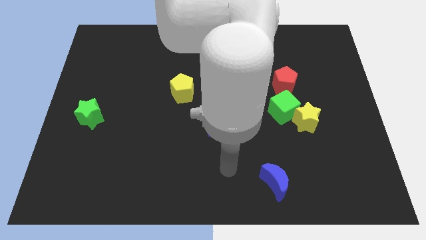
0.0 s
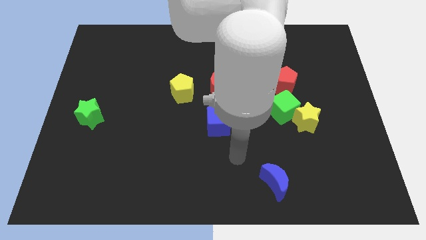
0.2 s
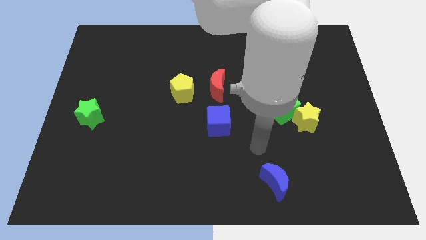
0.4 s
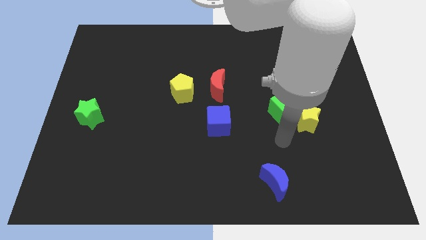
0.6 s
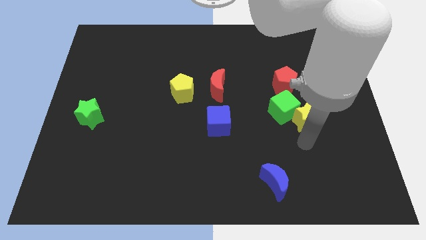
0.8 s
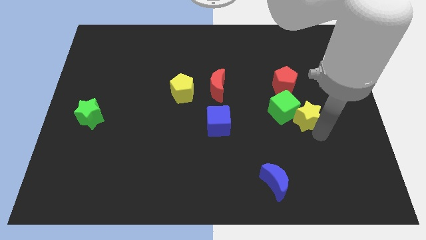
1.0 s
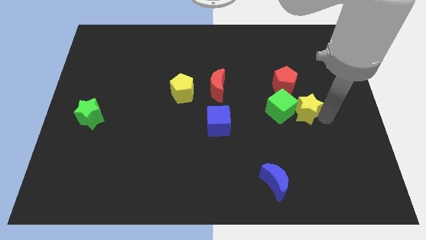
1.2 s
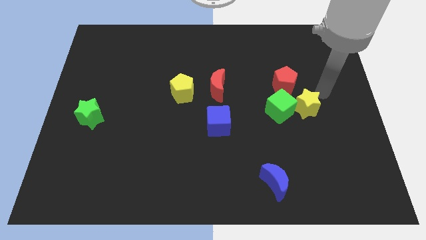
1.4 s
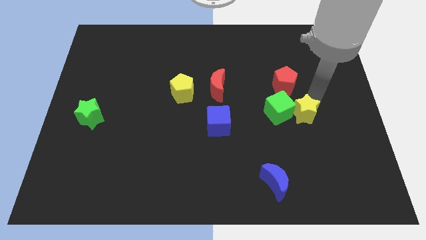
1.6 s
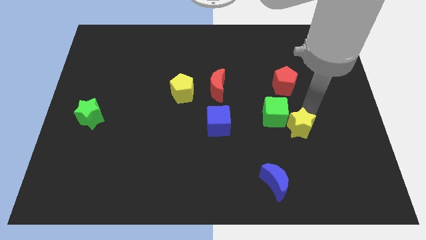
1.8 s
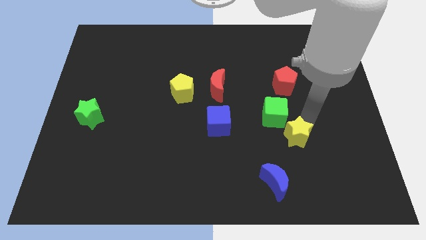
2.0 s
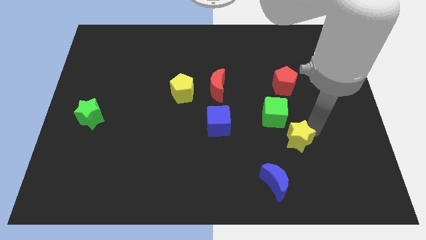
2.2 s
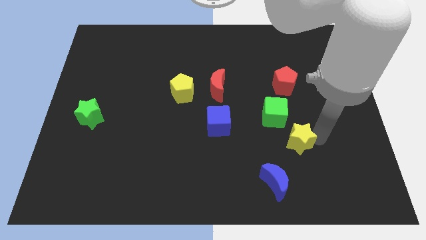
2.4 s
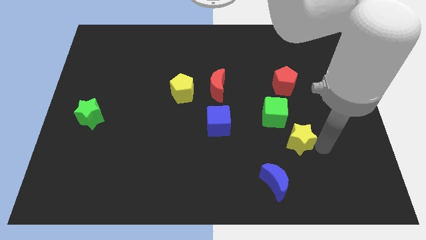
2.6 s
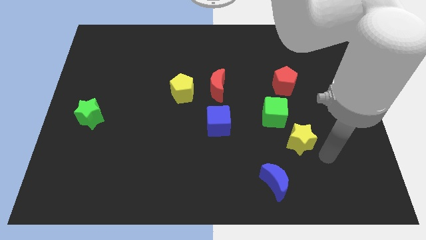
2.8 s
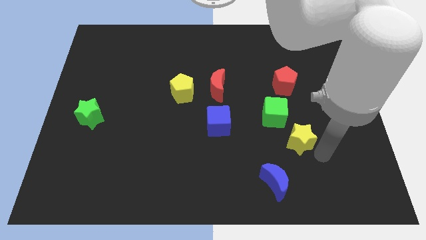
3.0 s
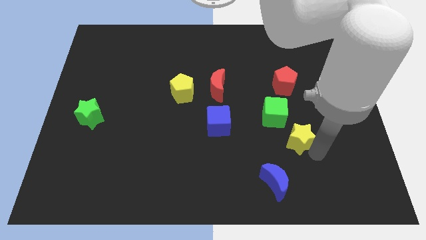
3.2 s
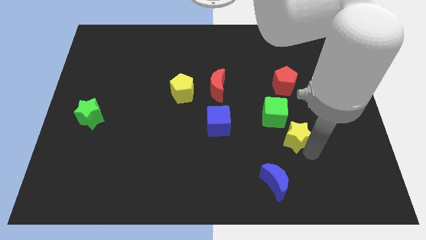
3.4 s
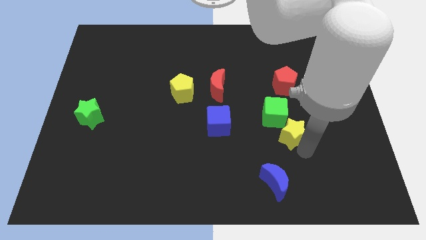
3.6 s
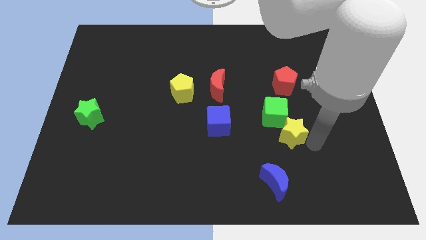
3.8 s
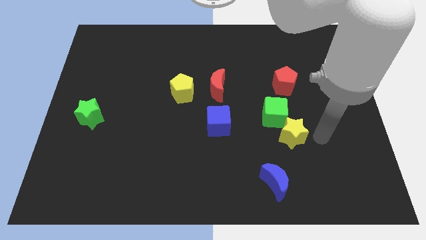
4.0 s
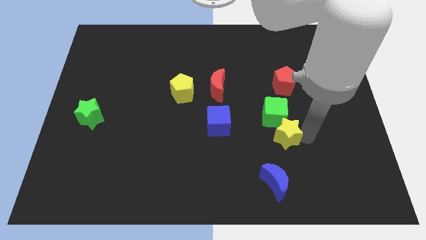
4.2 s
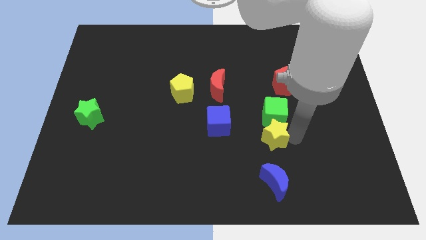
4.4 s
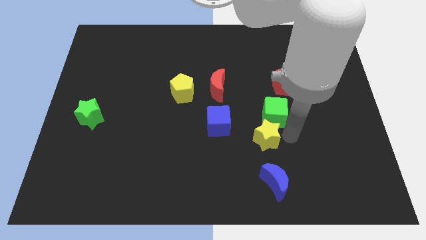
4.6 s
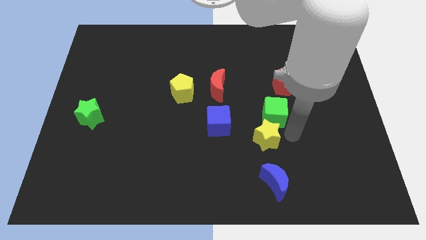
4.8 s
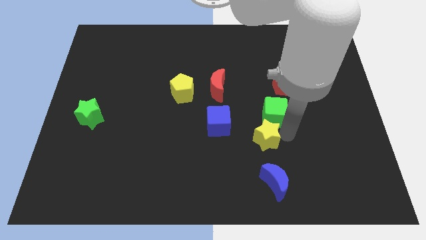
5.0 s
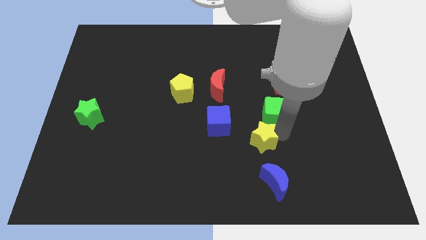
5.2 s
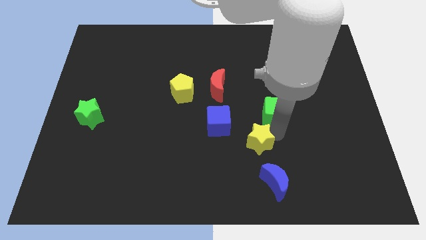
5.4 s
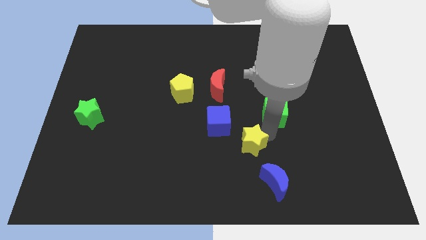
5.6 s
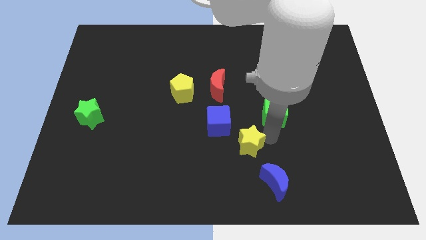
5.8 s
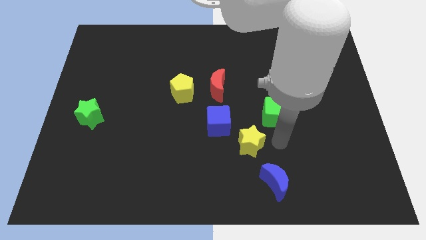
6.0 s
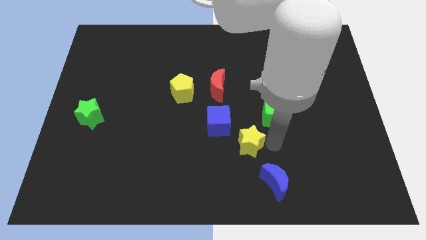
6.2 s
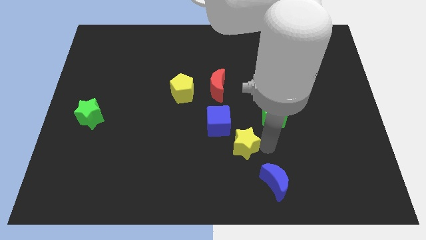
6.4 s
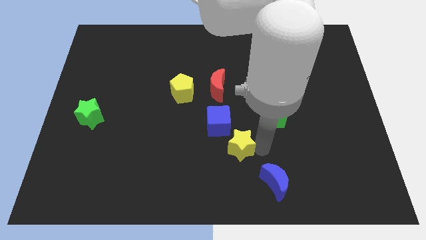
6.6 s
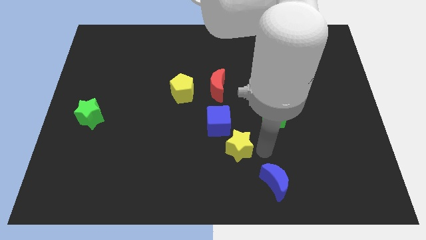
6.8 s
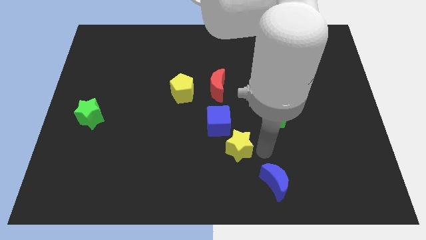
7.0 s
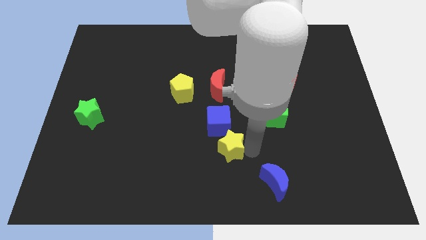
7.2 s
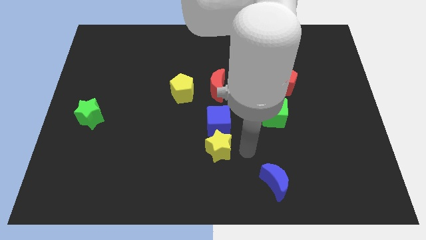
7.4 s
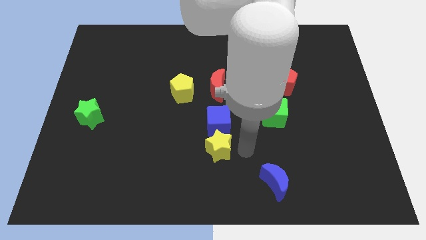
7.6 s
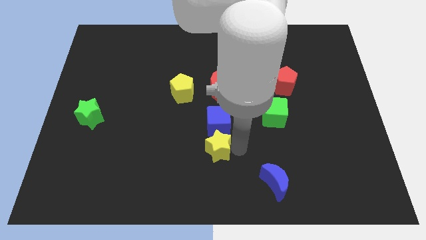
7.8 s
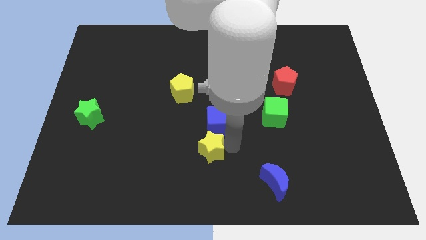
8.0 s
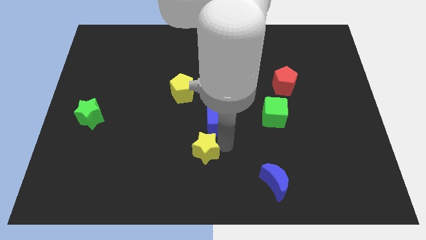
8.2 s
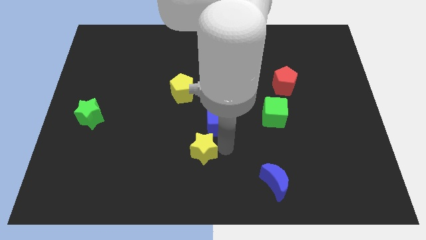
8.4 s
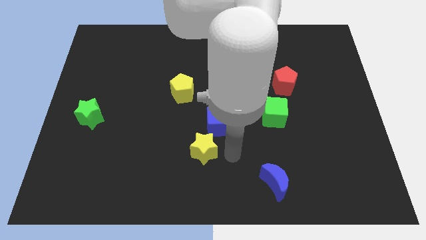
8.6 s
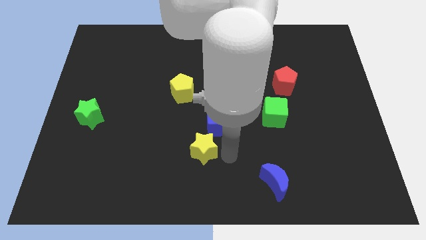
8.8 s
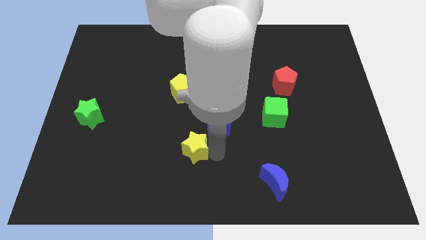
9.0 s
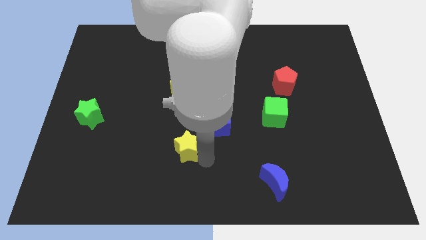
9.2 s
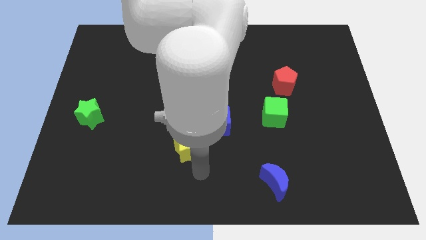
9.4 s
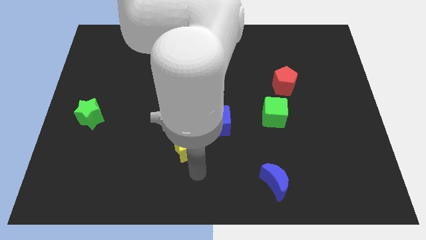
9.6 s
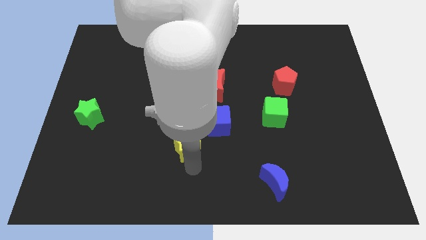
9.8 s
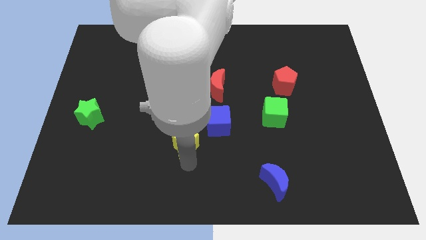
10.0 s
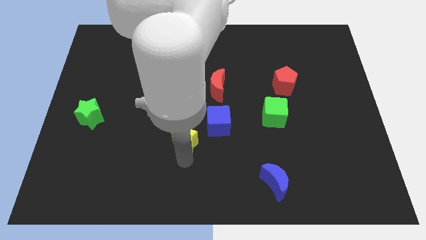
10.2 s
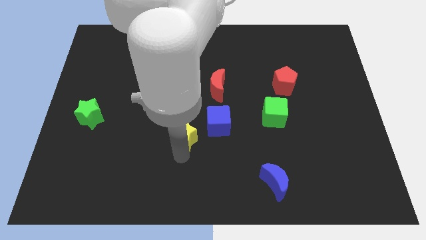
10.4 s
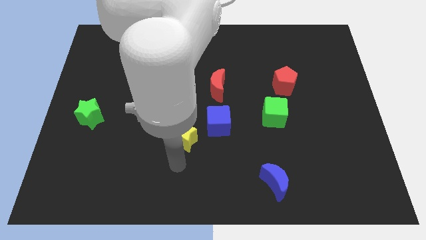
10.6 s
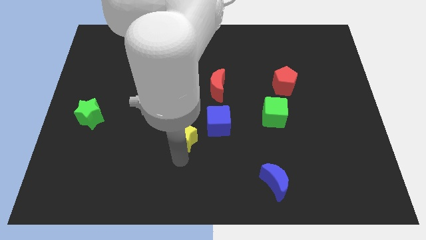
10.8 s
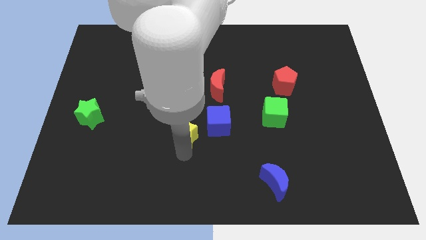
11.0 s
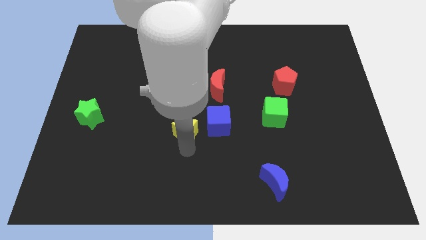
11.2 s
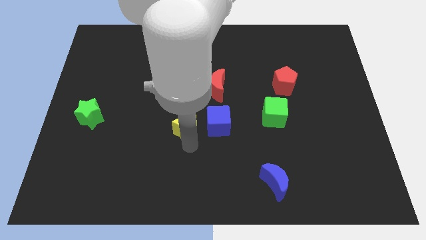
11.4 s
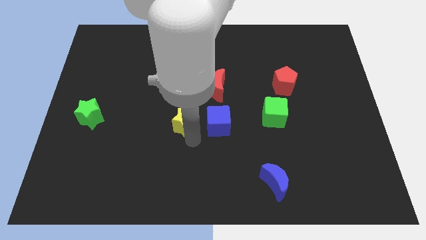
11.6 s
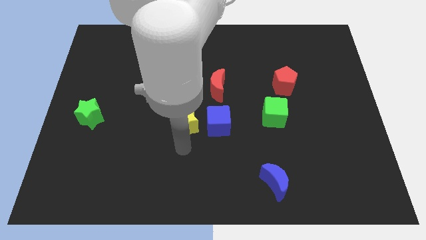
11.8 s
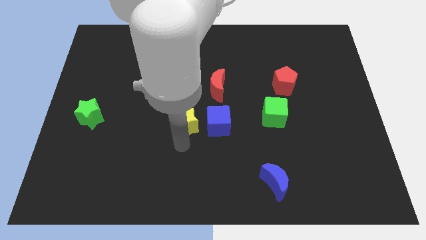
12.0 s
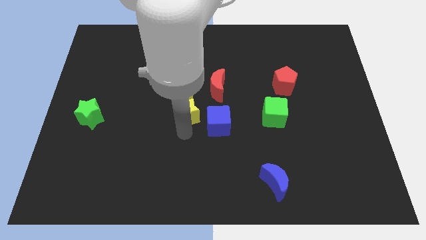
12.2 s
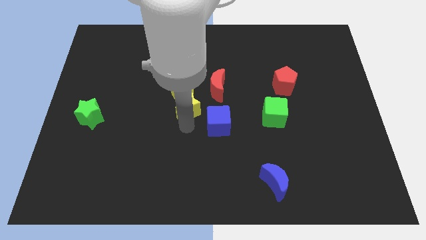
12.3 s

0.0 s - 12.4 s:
move the yellow star to the yellow pentagon

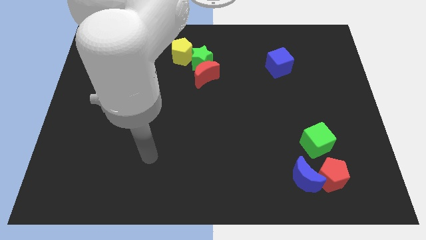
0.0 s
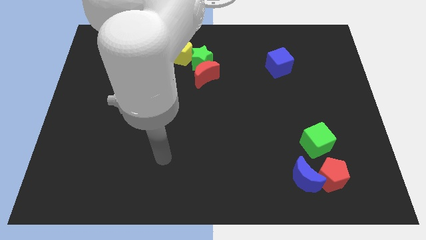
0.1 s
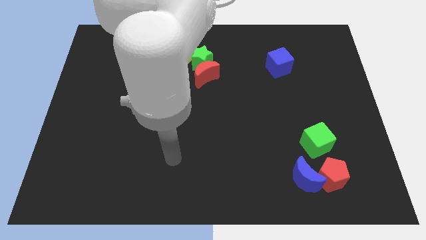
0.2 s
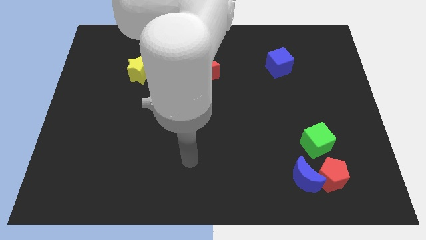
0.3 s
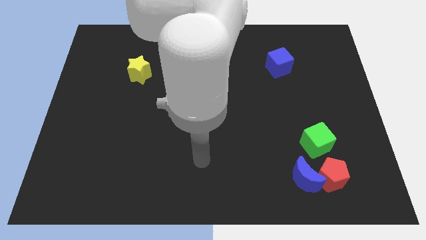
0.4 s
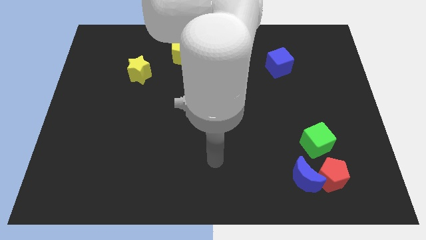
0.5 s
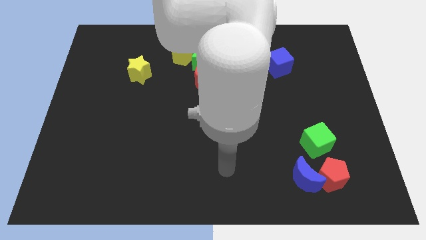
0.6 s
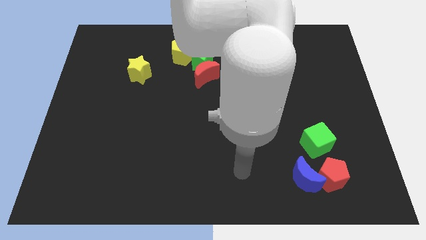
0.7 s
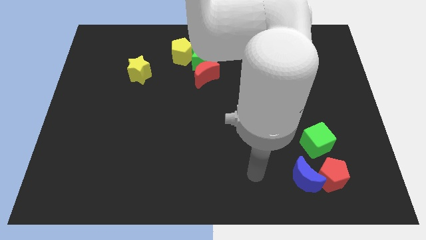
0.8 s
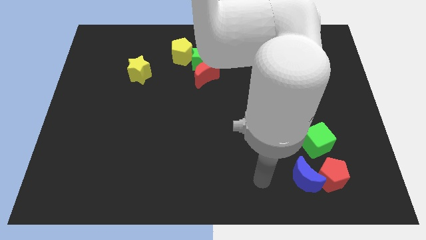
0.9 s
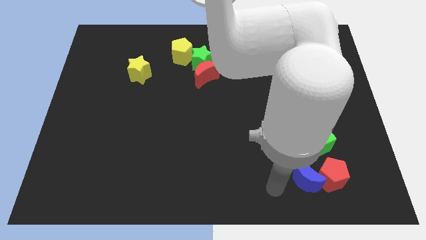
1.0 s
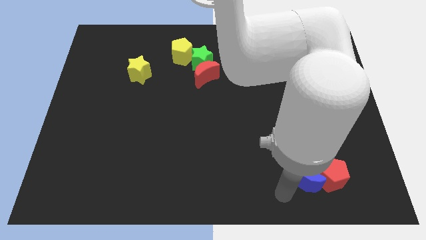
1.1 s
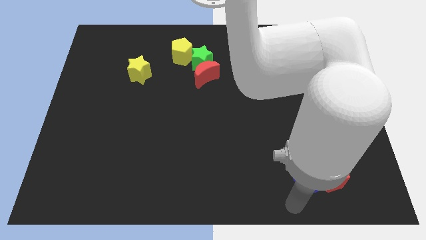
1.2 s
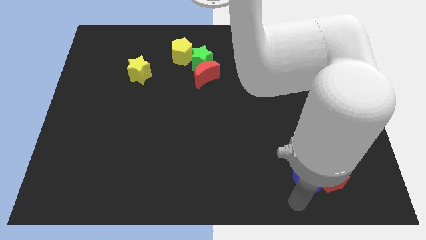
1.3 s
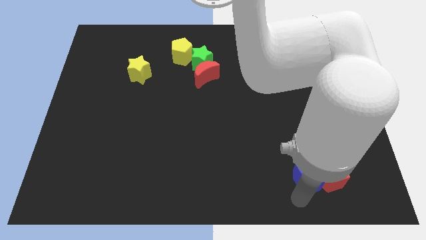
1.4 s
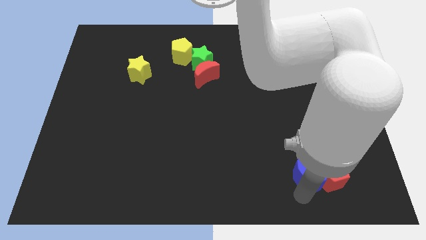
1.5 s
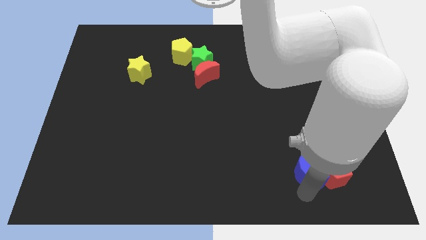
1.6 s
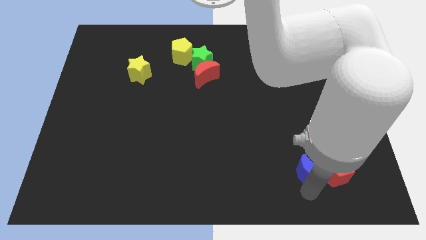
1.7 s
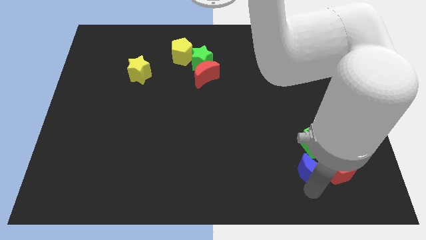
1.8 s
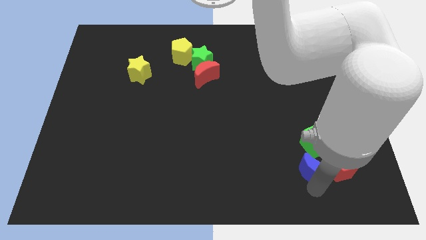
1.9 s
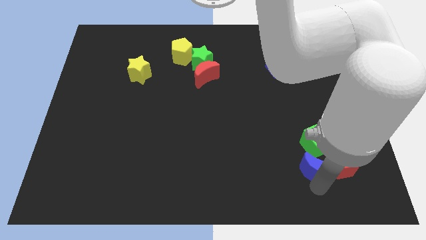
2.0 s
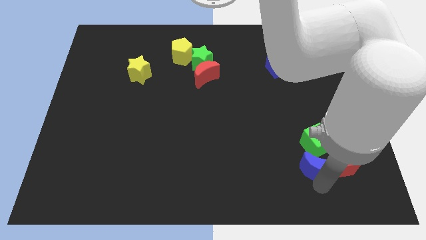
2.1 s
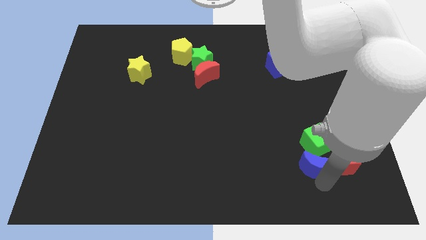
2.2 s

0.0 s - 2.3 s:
move the blue moon next to the green cube
